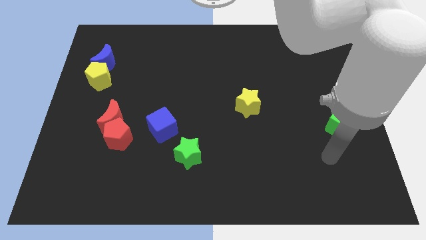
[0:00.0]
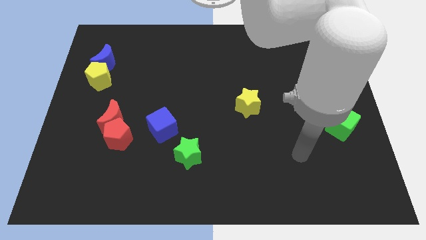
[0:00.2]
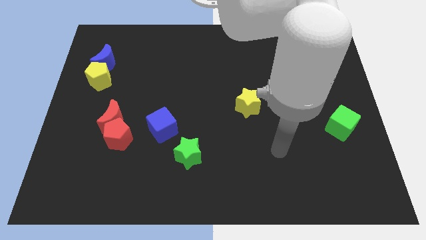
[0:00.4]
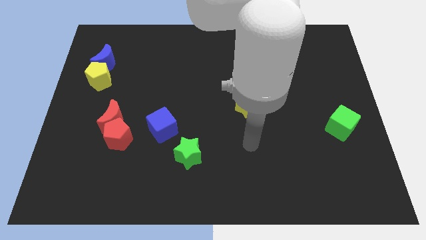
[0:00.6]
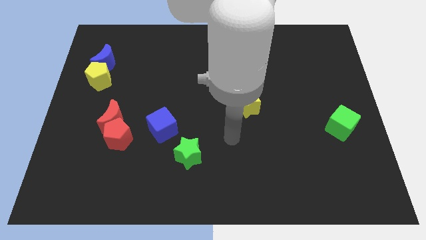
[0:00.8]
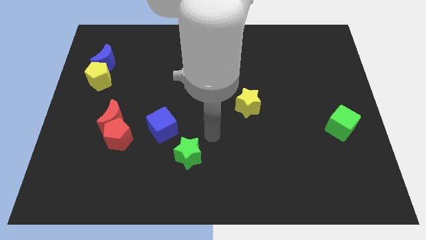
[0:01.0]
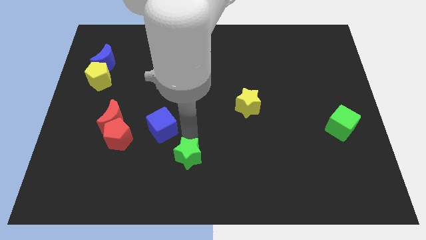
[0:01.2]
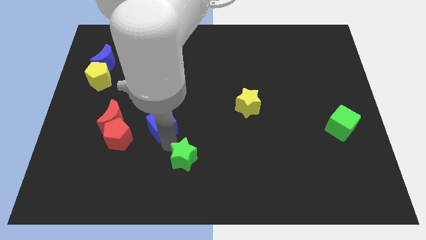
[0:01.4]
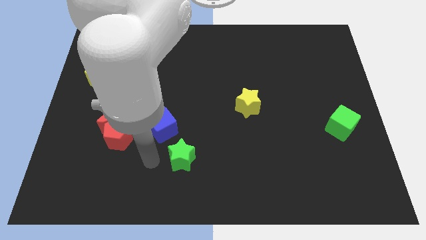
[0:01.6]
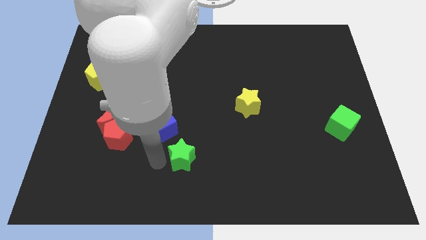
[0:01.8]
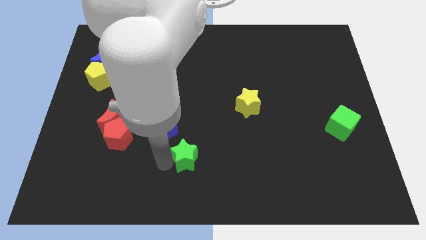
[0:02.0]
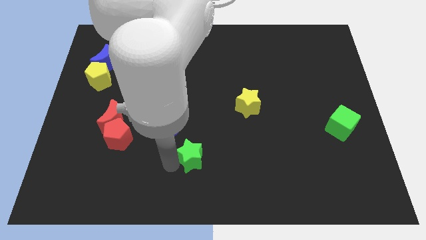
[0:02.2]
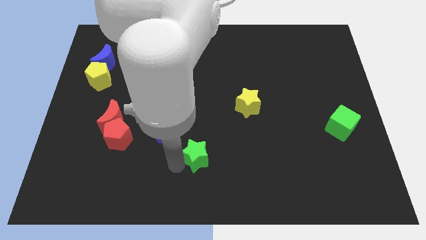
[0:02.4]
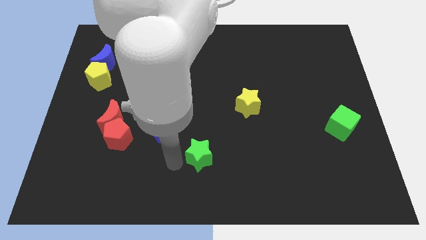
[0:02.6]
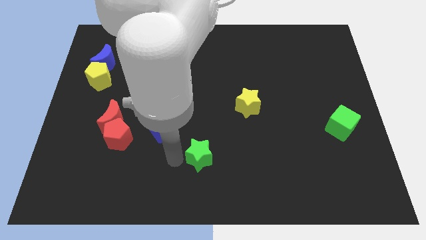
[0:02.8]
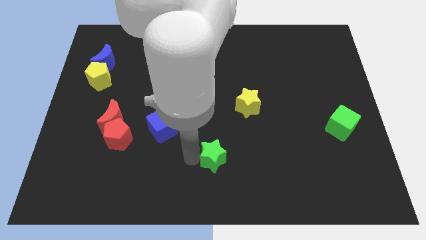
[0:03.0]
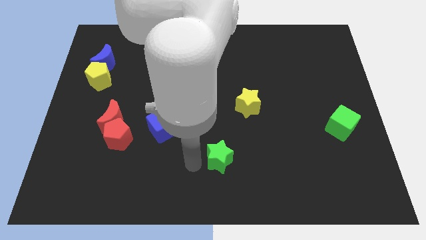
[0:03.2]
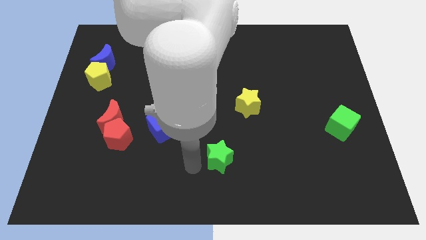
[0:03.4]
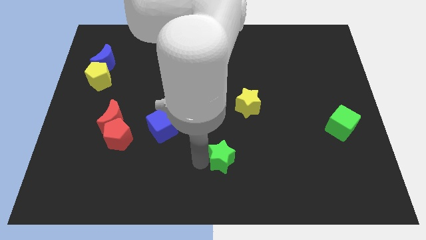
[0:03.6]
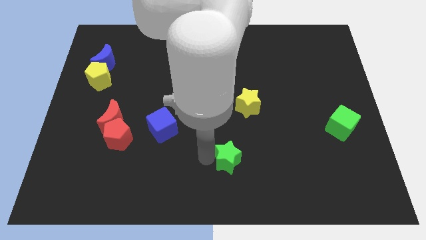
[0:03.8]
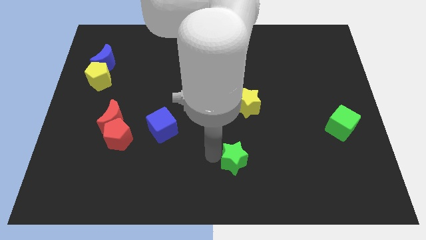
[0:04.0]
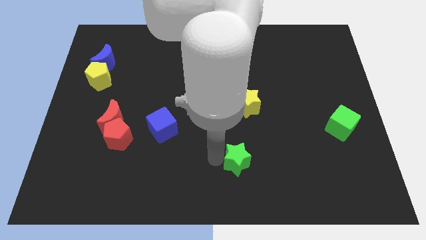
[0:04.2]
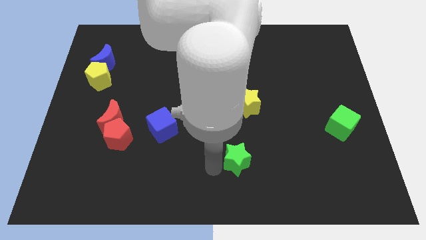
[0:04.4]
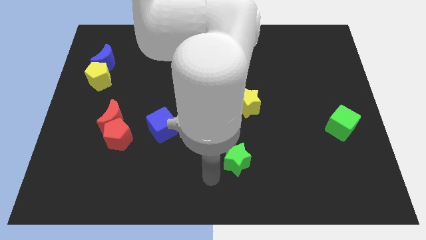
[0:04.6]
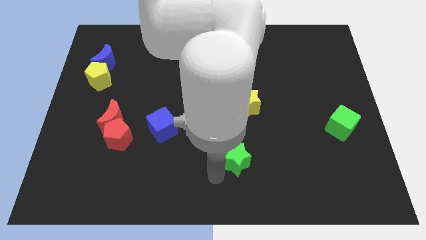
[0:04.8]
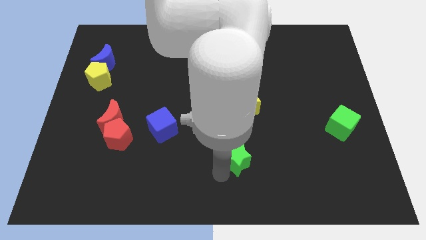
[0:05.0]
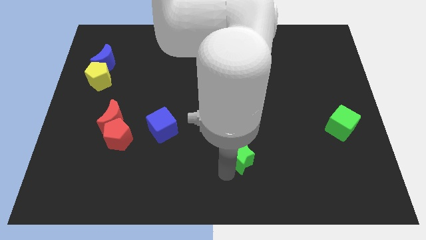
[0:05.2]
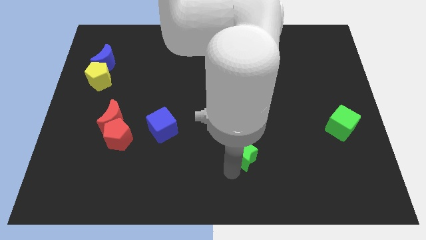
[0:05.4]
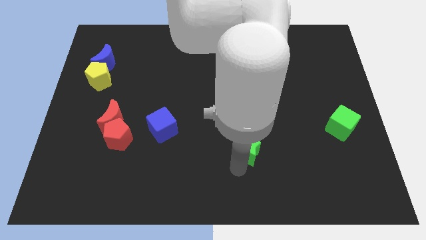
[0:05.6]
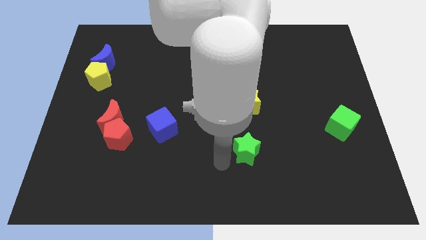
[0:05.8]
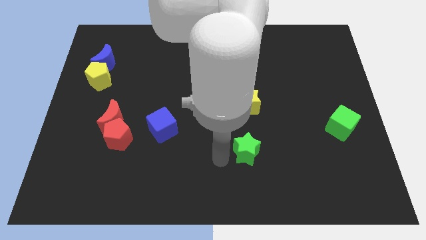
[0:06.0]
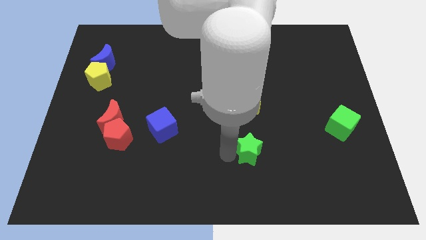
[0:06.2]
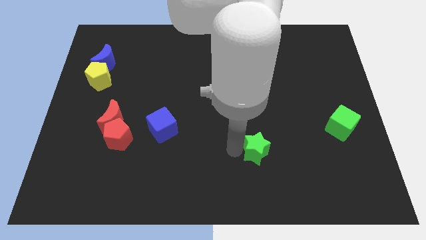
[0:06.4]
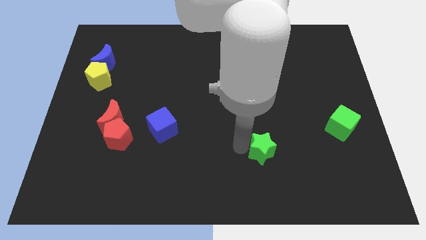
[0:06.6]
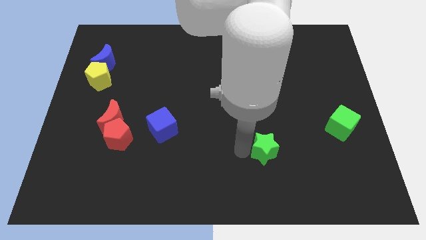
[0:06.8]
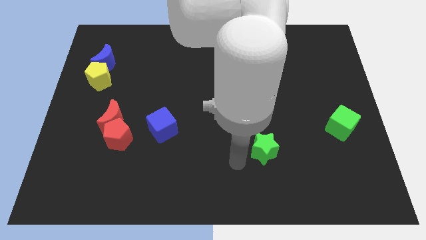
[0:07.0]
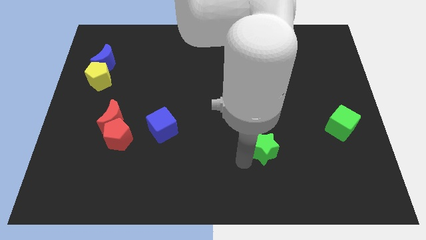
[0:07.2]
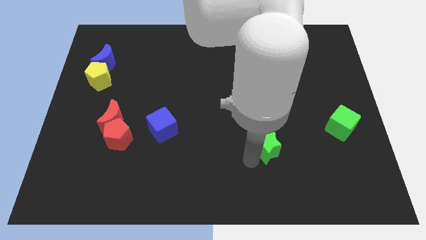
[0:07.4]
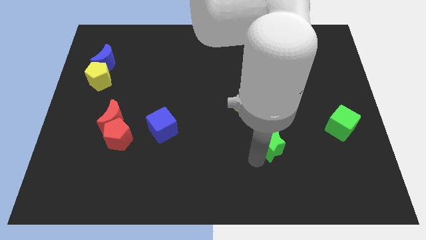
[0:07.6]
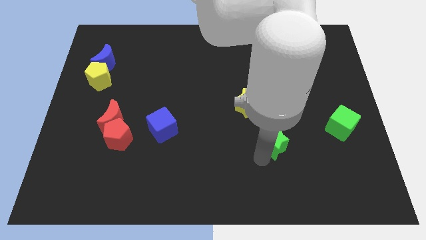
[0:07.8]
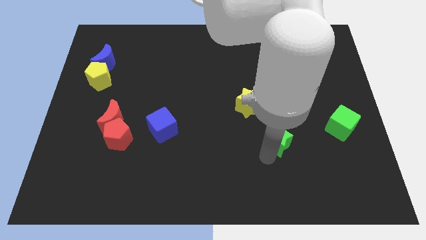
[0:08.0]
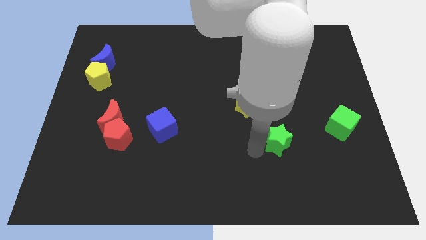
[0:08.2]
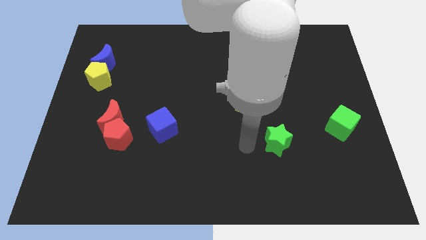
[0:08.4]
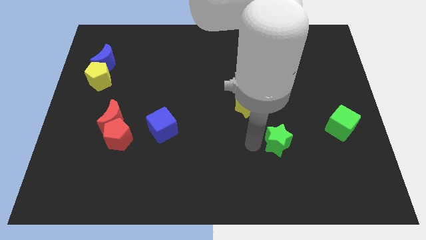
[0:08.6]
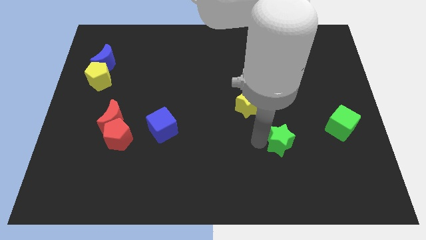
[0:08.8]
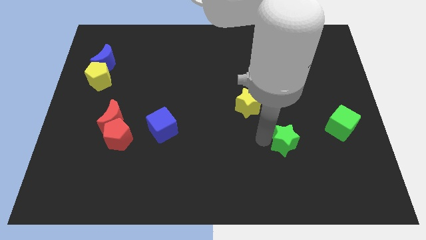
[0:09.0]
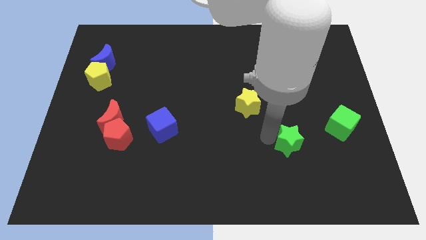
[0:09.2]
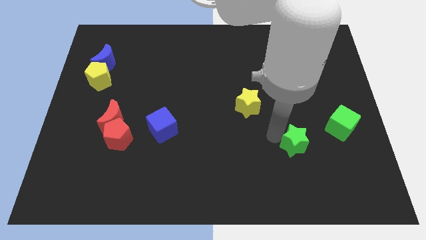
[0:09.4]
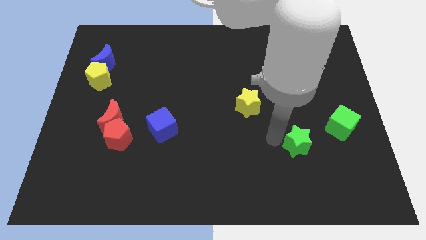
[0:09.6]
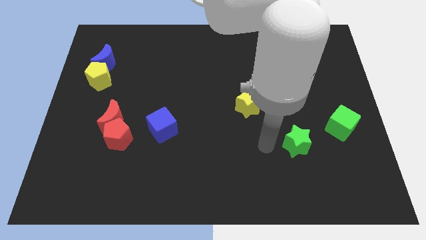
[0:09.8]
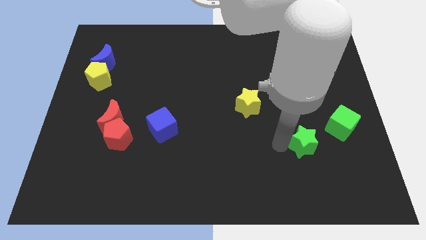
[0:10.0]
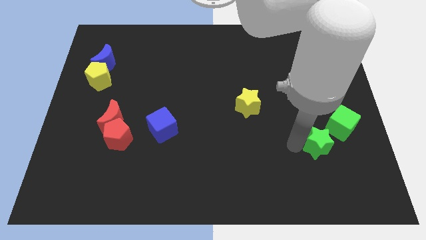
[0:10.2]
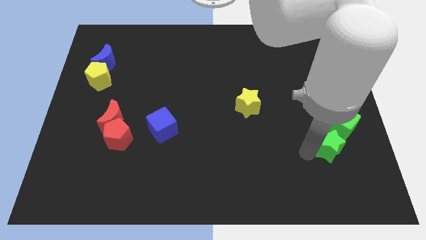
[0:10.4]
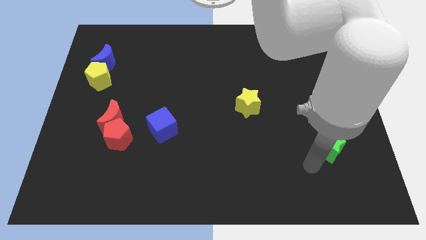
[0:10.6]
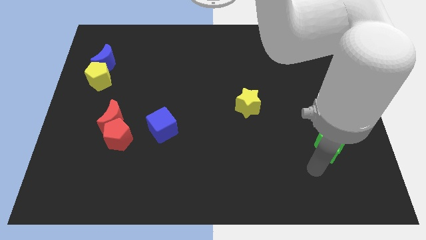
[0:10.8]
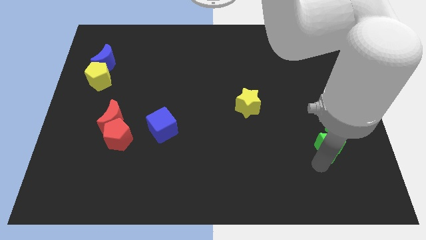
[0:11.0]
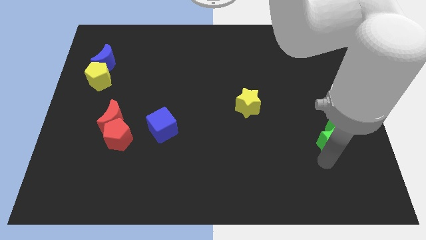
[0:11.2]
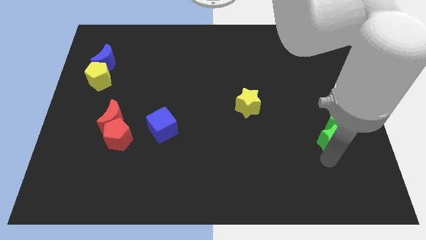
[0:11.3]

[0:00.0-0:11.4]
move the green star to the green cube

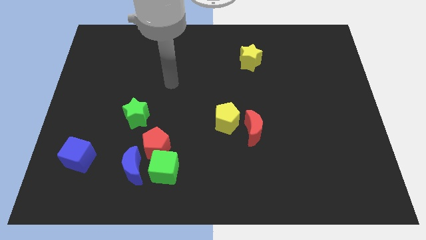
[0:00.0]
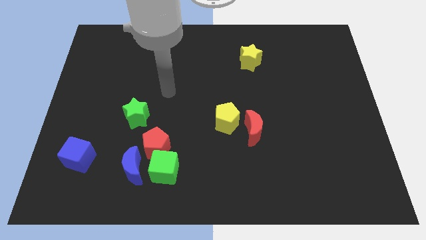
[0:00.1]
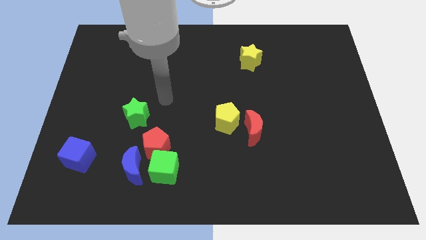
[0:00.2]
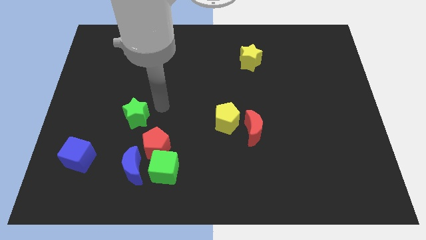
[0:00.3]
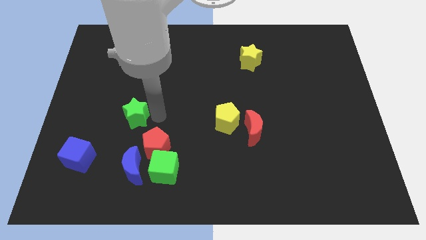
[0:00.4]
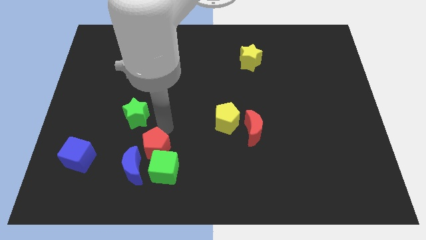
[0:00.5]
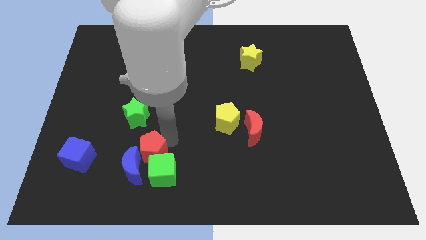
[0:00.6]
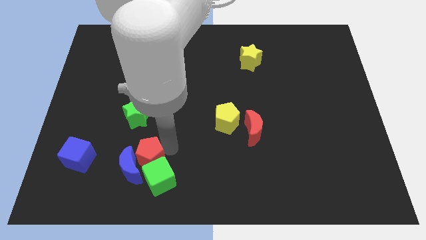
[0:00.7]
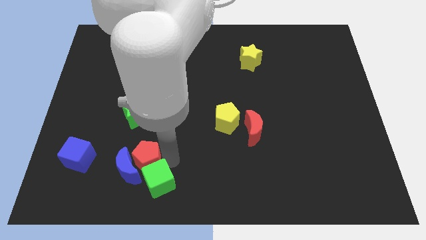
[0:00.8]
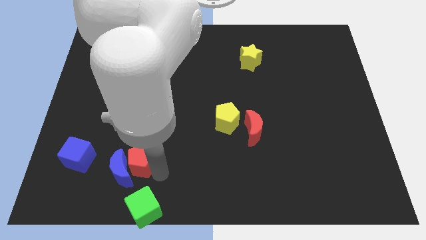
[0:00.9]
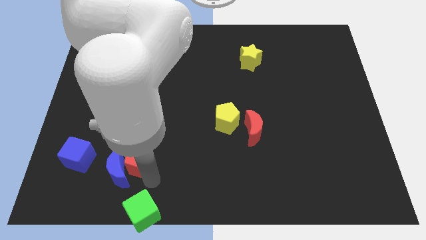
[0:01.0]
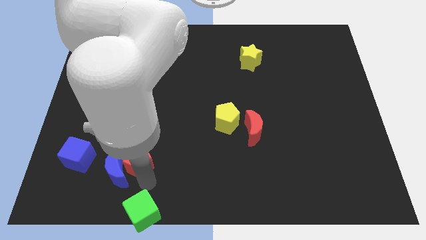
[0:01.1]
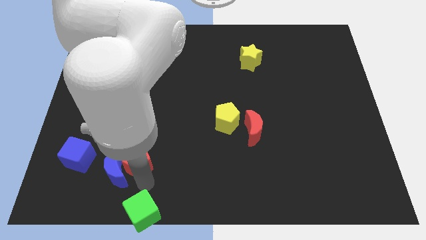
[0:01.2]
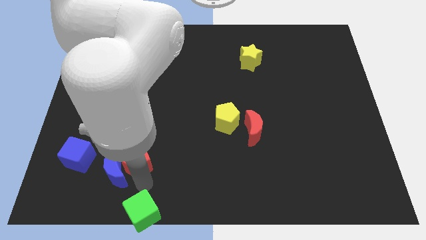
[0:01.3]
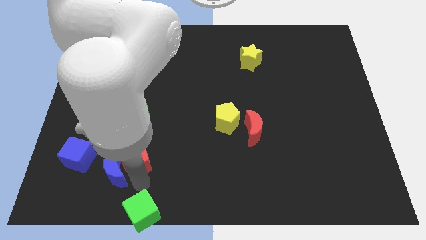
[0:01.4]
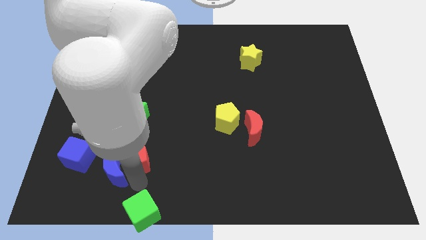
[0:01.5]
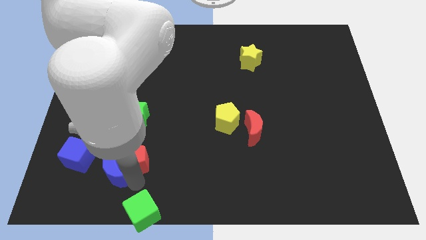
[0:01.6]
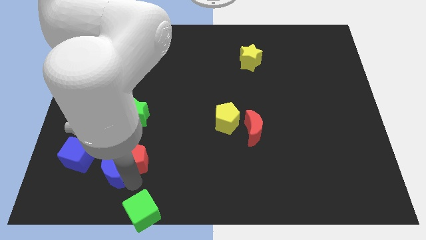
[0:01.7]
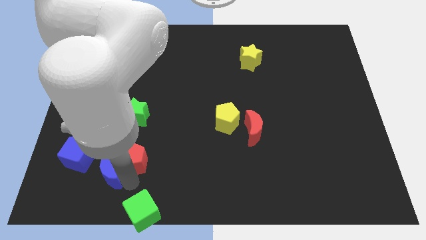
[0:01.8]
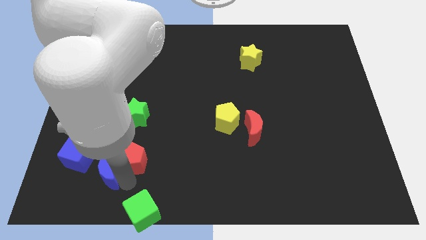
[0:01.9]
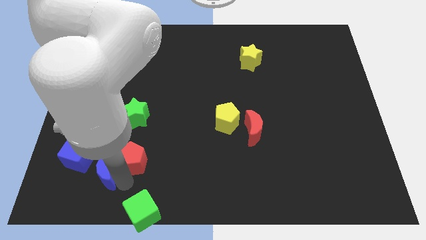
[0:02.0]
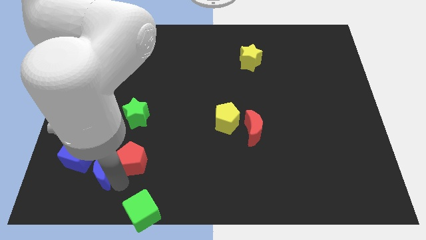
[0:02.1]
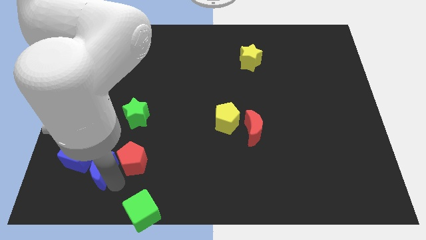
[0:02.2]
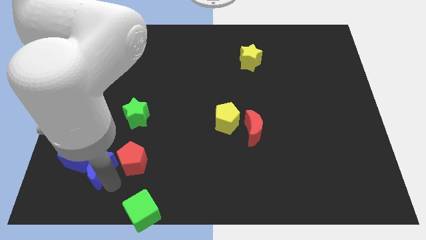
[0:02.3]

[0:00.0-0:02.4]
move the blue moon to the blue cube
